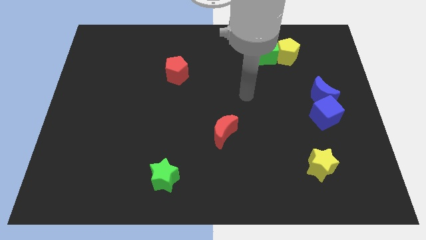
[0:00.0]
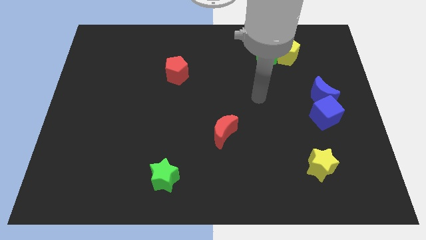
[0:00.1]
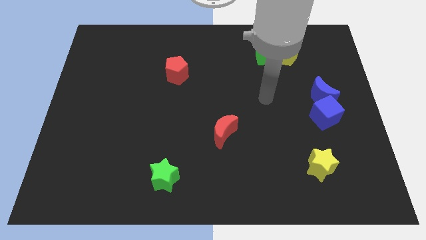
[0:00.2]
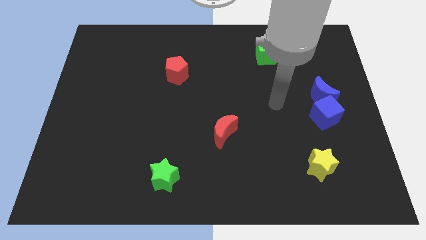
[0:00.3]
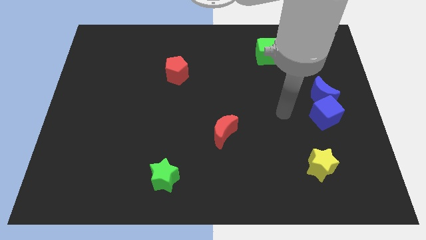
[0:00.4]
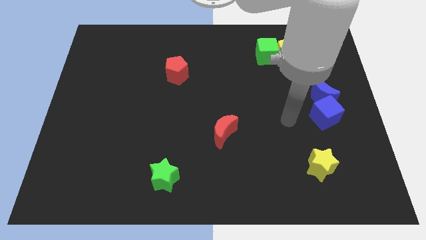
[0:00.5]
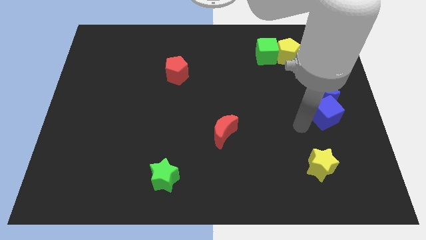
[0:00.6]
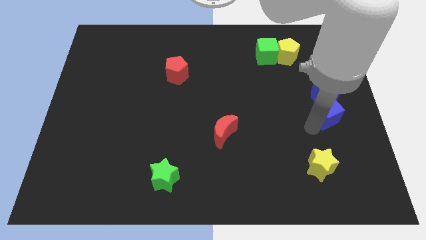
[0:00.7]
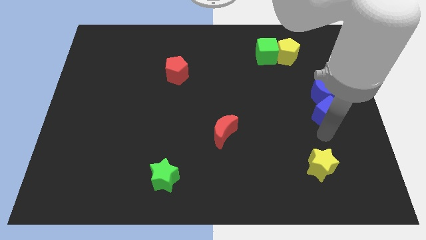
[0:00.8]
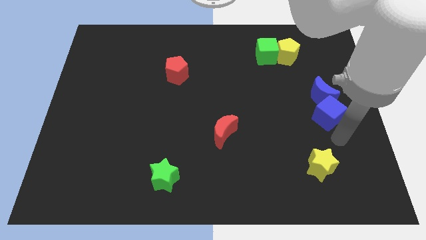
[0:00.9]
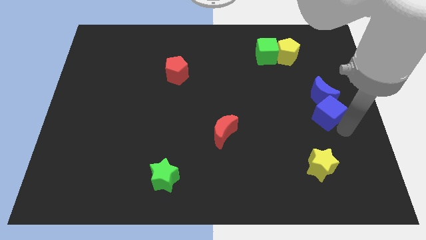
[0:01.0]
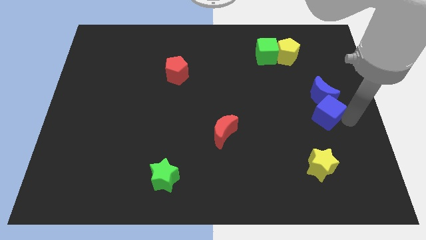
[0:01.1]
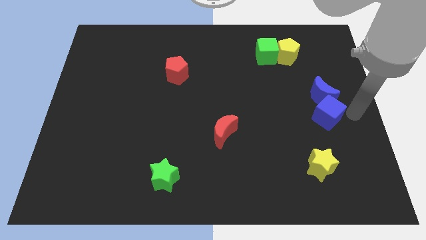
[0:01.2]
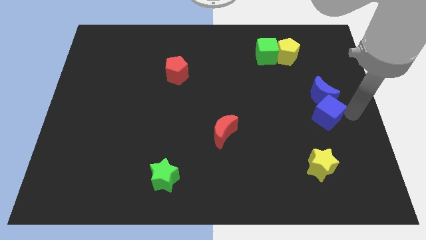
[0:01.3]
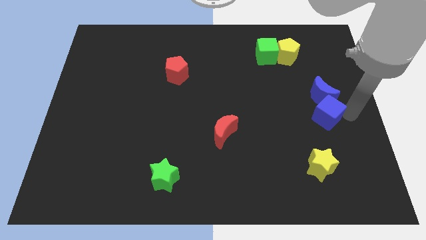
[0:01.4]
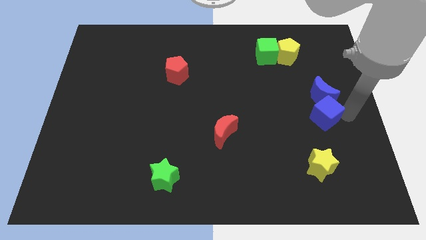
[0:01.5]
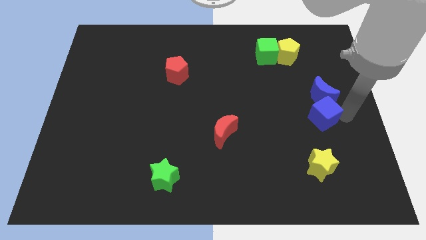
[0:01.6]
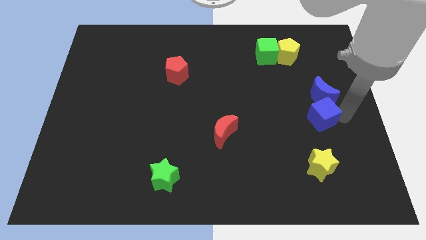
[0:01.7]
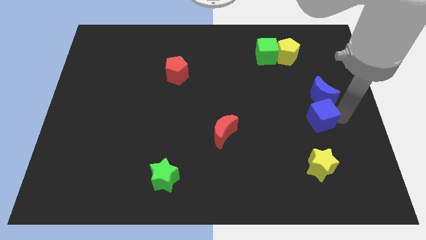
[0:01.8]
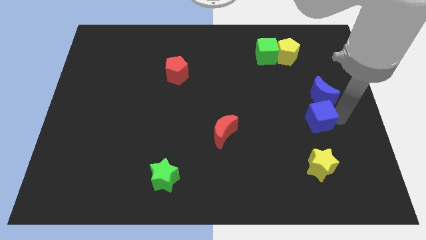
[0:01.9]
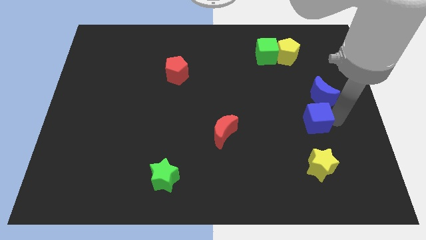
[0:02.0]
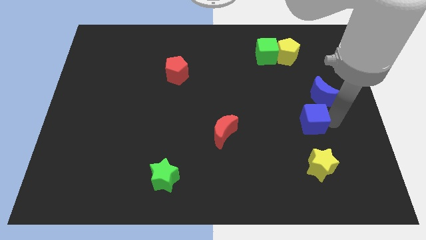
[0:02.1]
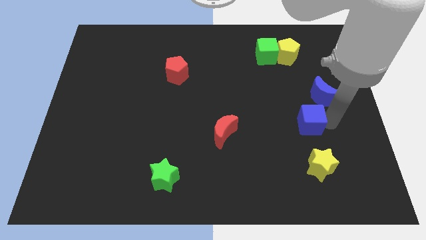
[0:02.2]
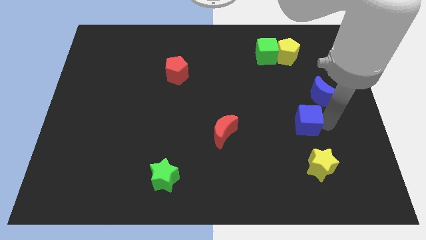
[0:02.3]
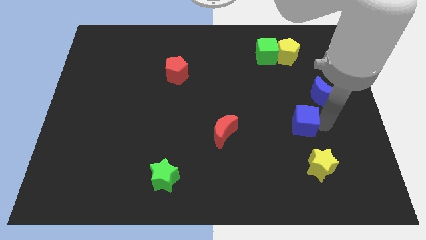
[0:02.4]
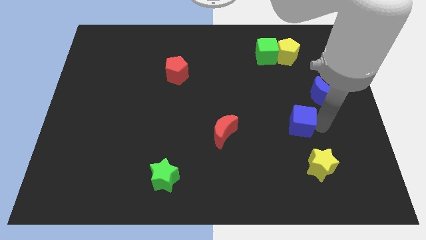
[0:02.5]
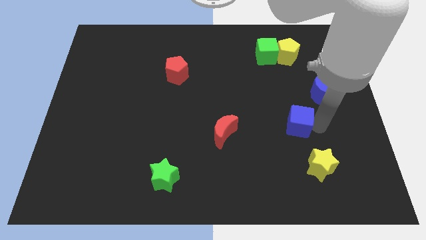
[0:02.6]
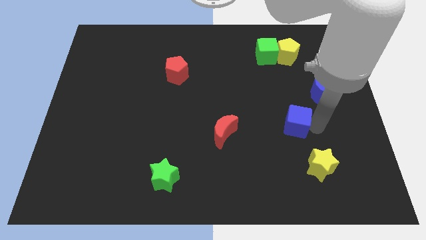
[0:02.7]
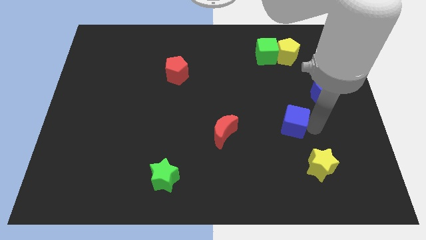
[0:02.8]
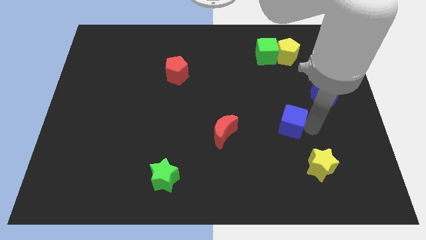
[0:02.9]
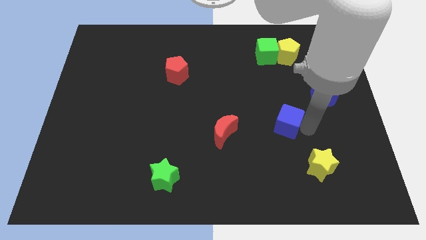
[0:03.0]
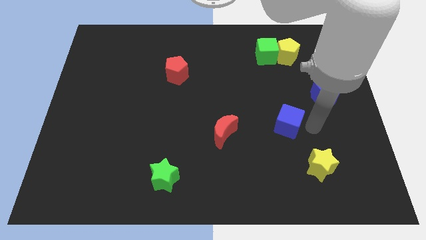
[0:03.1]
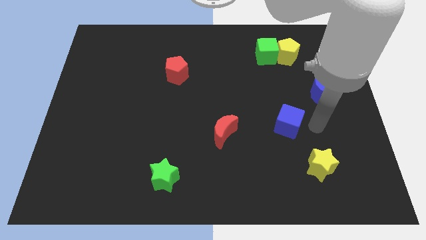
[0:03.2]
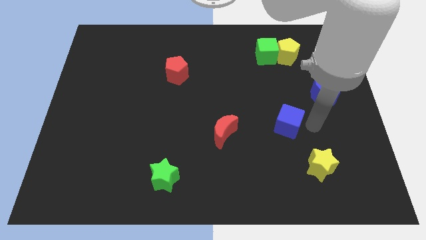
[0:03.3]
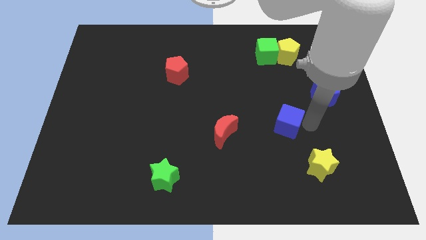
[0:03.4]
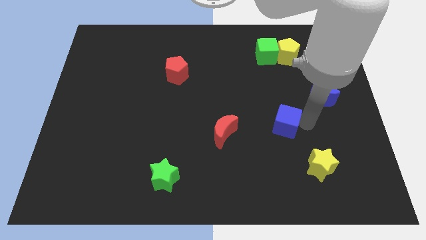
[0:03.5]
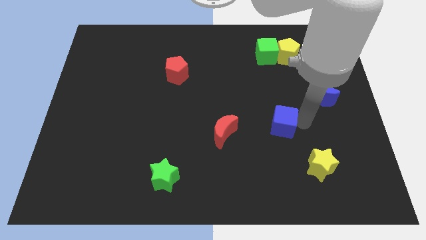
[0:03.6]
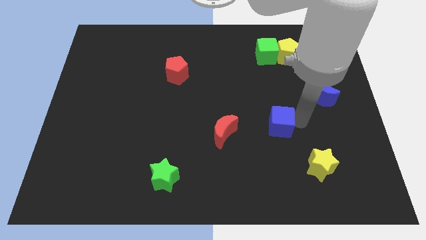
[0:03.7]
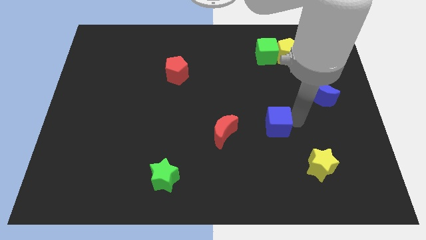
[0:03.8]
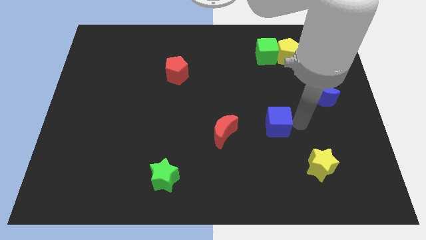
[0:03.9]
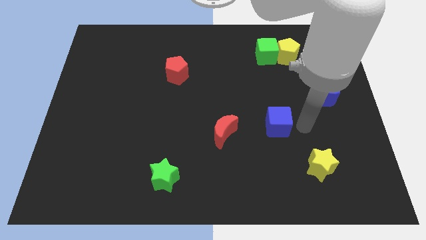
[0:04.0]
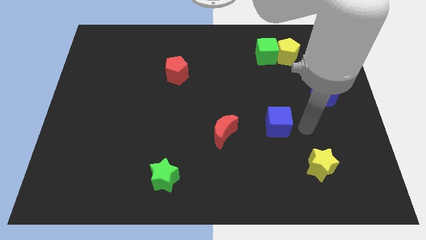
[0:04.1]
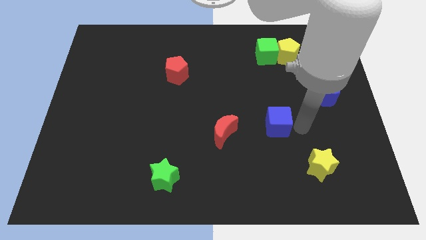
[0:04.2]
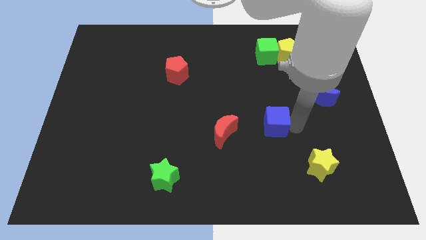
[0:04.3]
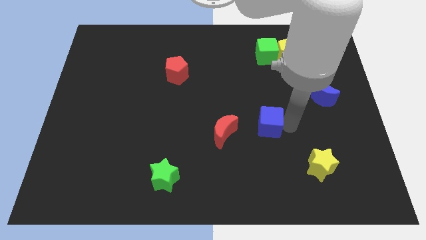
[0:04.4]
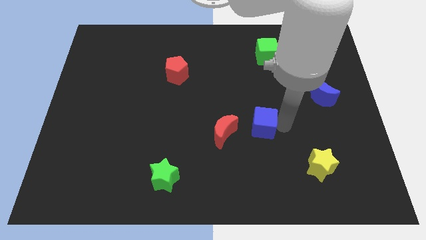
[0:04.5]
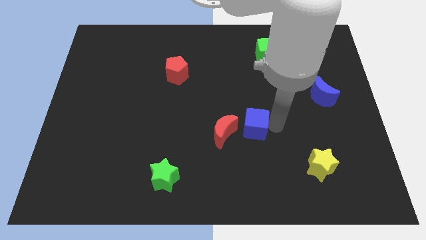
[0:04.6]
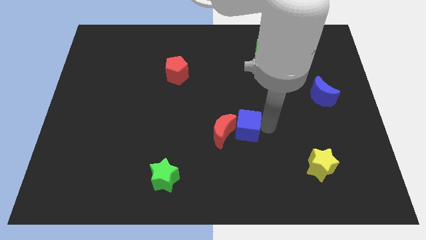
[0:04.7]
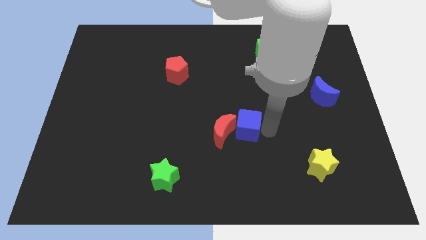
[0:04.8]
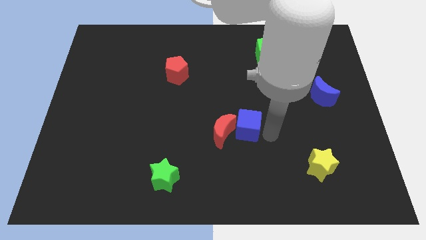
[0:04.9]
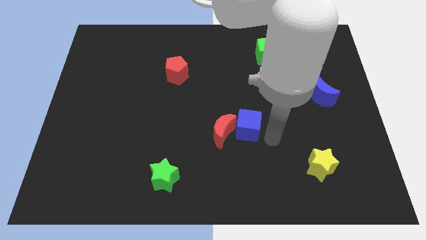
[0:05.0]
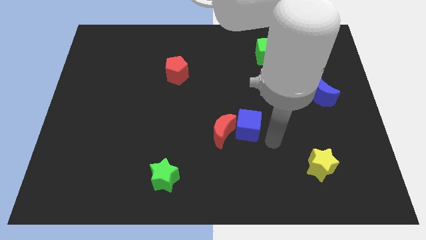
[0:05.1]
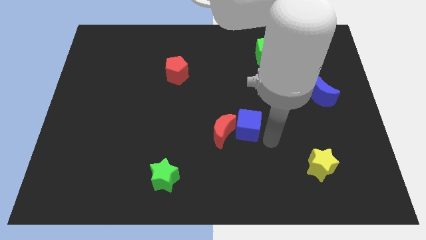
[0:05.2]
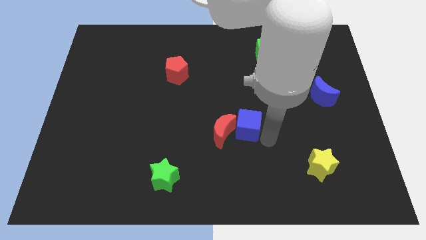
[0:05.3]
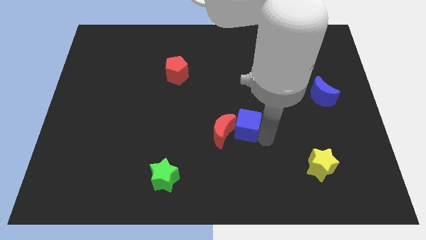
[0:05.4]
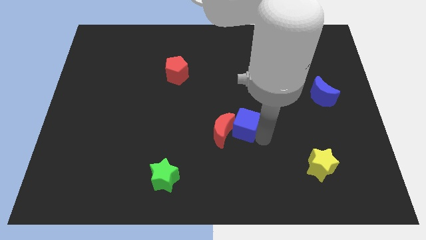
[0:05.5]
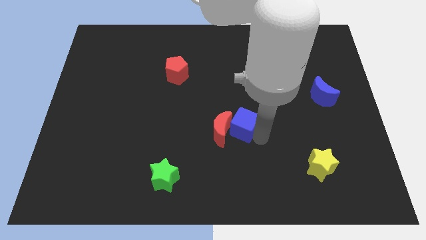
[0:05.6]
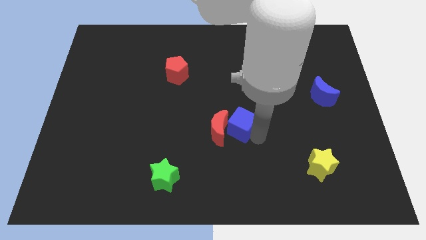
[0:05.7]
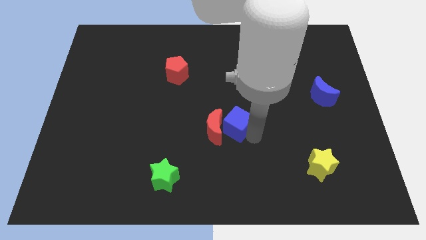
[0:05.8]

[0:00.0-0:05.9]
move the blue cube to the left

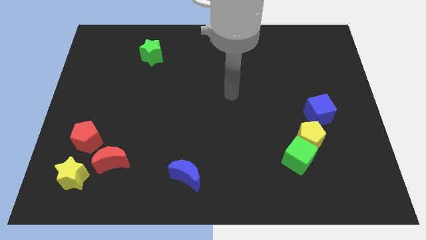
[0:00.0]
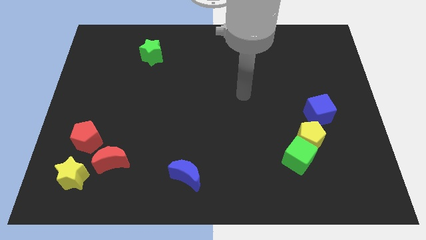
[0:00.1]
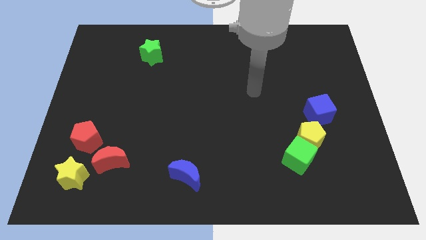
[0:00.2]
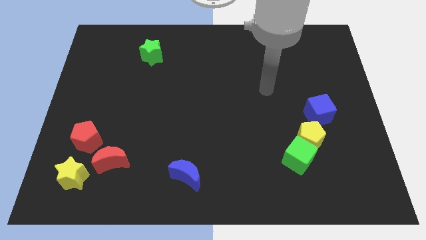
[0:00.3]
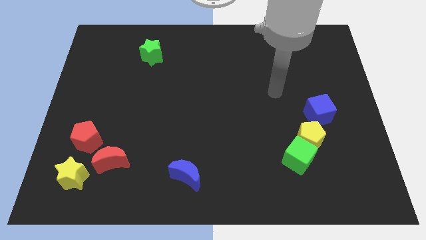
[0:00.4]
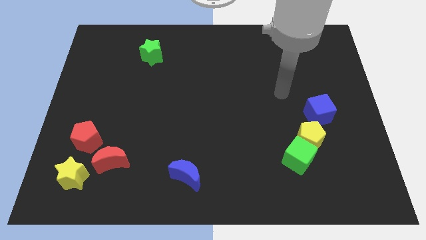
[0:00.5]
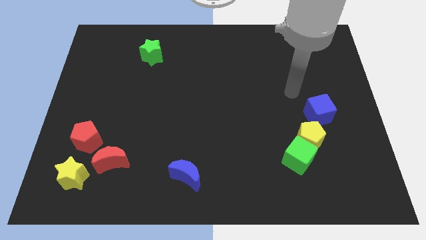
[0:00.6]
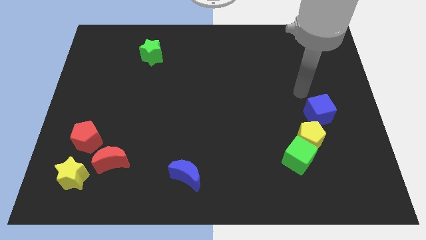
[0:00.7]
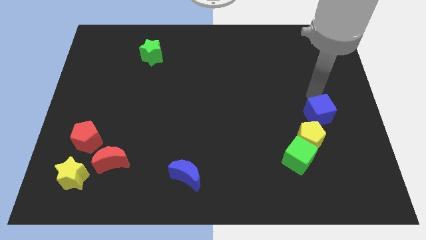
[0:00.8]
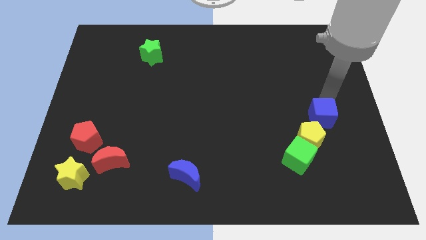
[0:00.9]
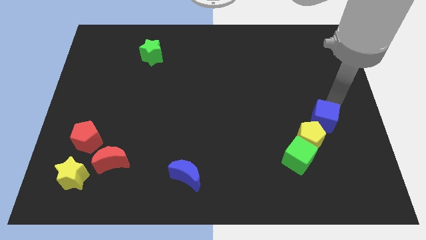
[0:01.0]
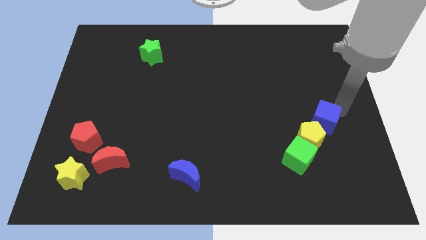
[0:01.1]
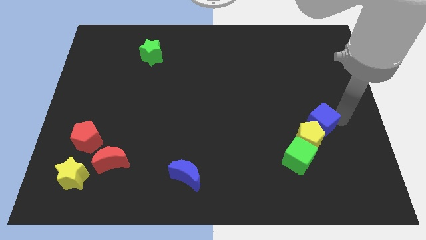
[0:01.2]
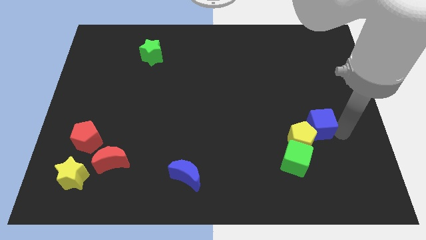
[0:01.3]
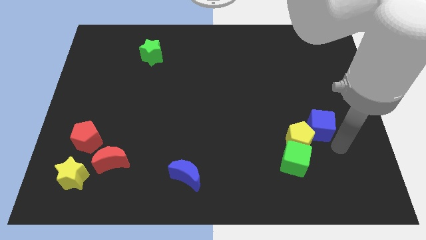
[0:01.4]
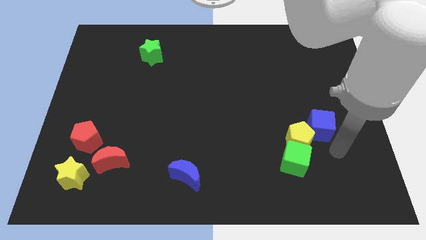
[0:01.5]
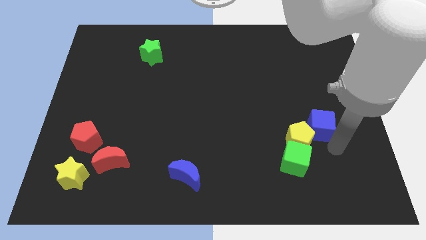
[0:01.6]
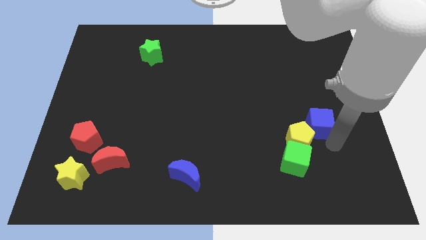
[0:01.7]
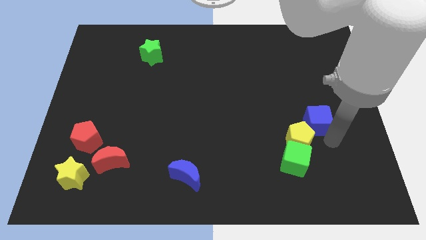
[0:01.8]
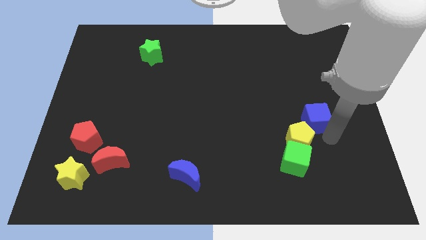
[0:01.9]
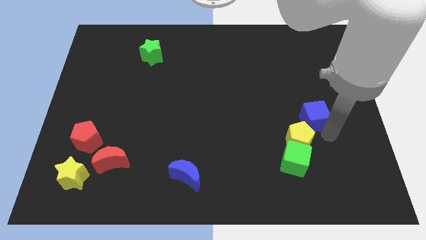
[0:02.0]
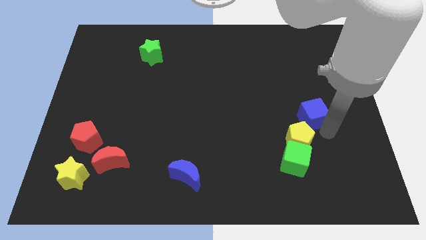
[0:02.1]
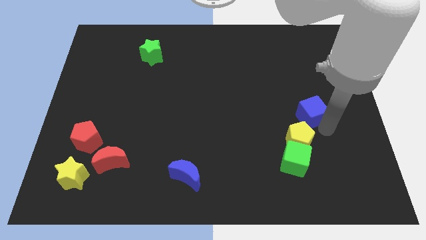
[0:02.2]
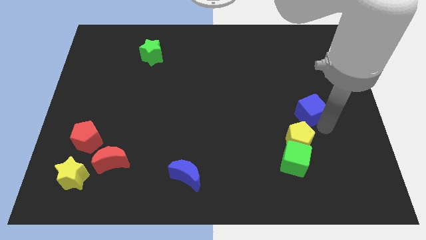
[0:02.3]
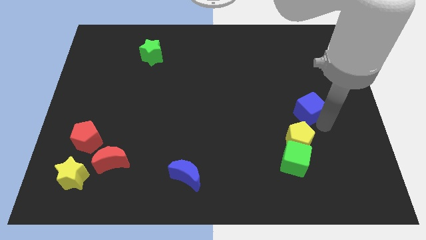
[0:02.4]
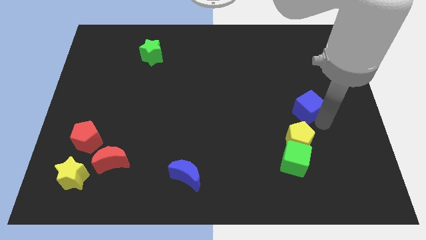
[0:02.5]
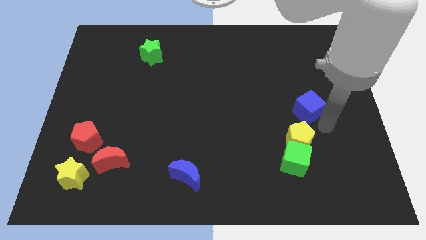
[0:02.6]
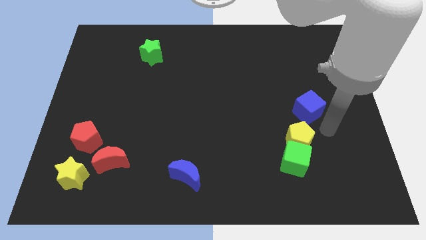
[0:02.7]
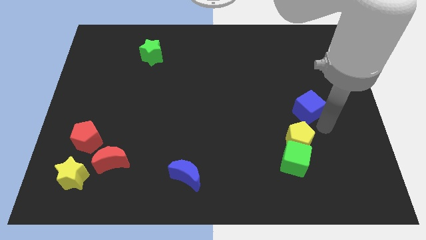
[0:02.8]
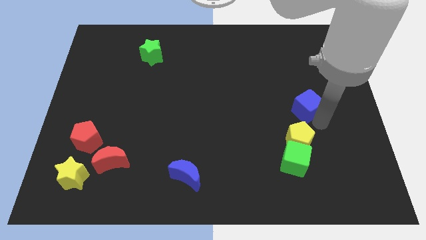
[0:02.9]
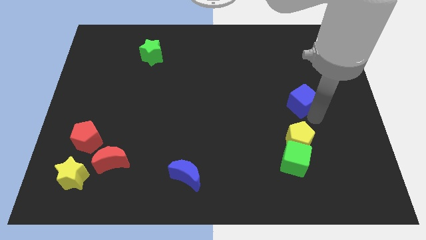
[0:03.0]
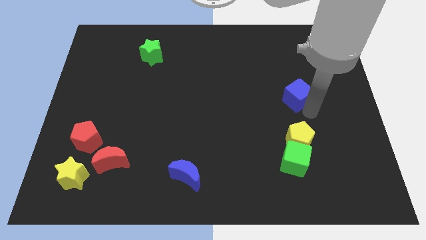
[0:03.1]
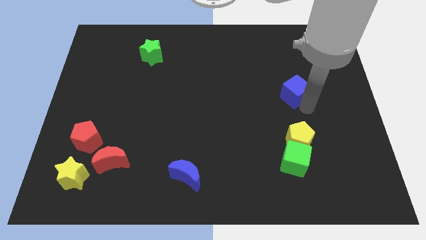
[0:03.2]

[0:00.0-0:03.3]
slightly move the blue cube up and left diagonally
